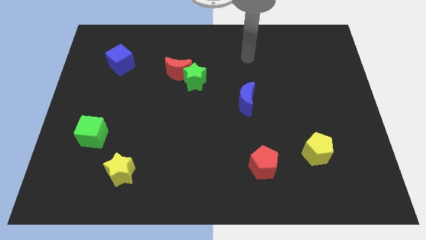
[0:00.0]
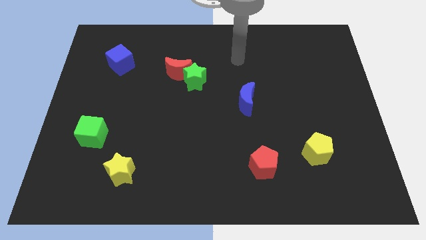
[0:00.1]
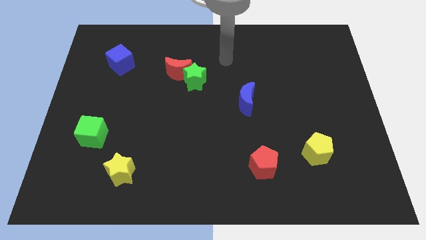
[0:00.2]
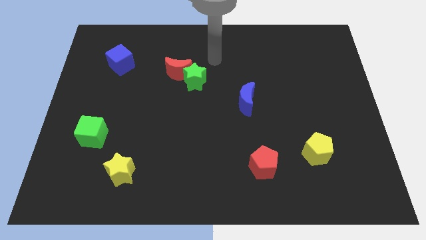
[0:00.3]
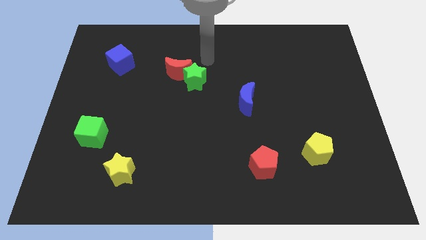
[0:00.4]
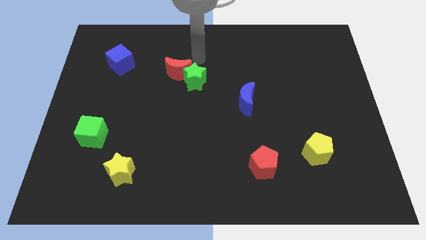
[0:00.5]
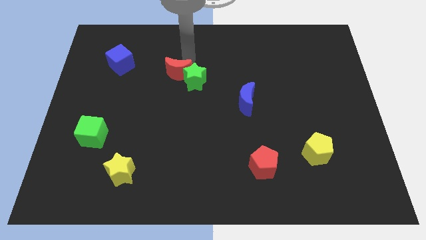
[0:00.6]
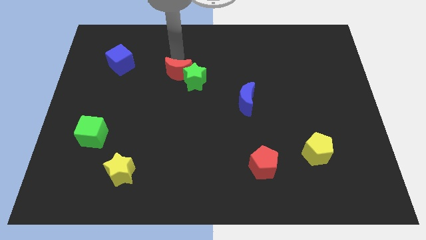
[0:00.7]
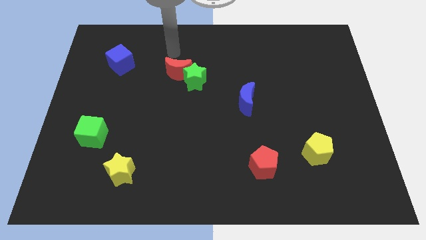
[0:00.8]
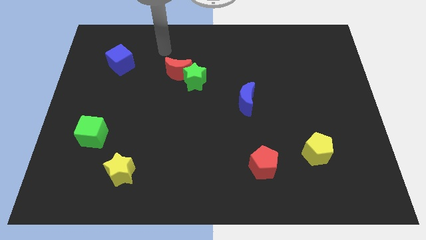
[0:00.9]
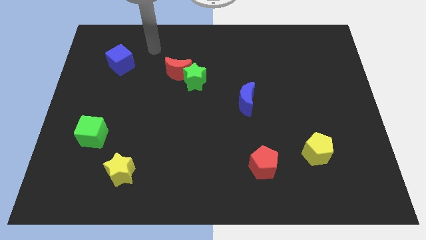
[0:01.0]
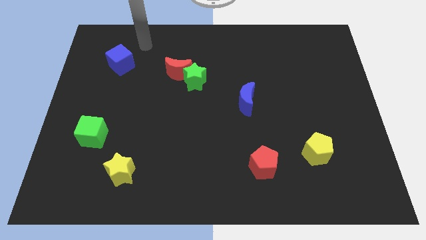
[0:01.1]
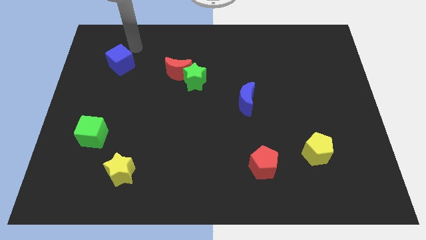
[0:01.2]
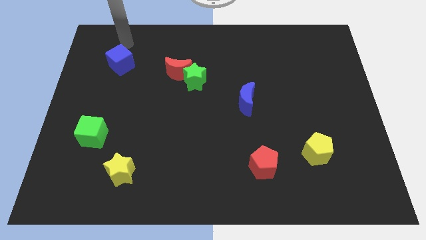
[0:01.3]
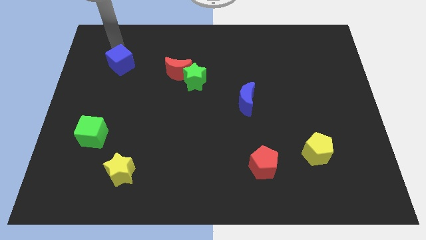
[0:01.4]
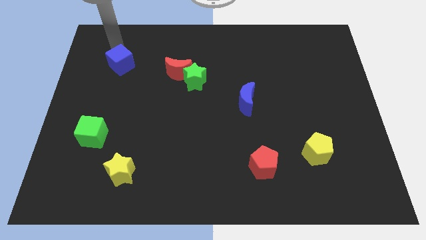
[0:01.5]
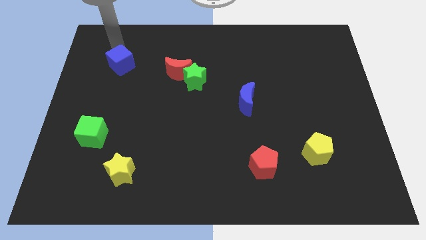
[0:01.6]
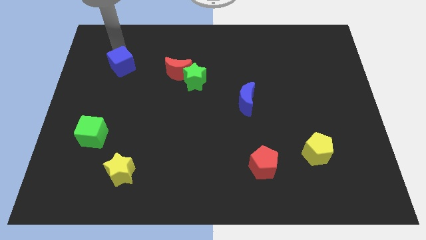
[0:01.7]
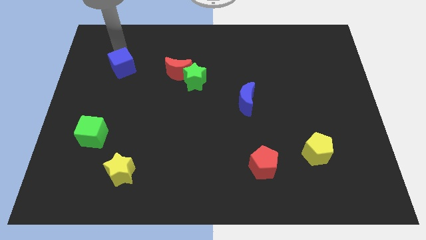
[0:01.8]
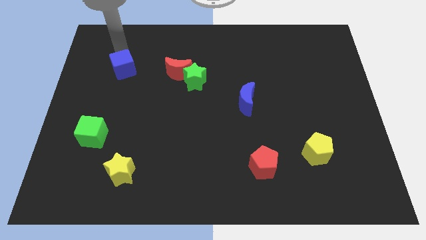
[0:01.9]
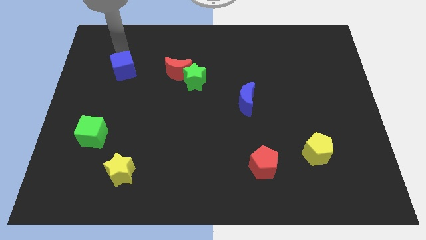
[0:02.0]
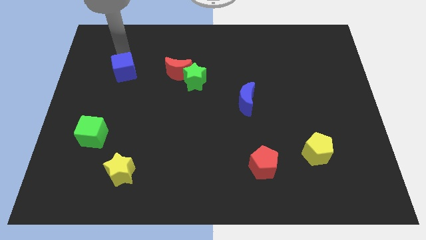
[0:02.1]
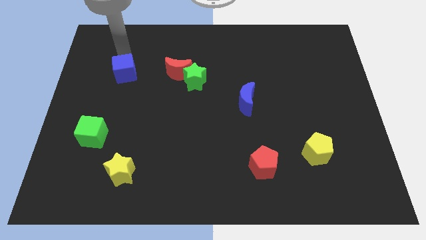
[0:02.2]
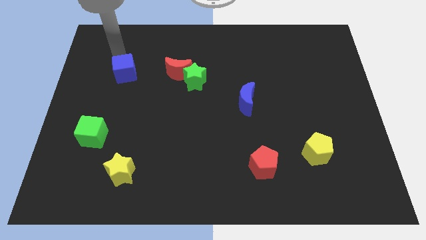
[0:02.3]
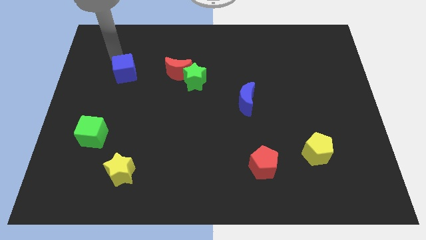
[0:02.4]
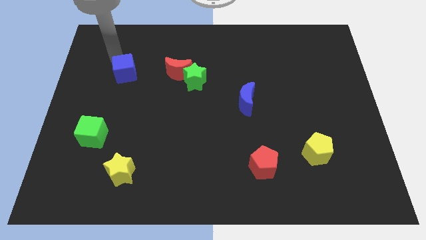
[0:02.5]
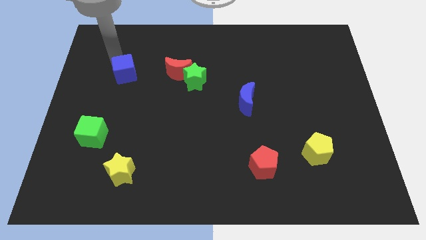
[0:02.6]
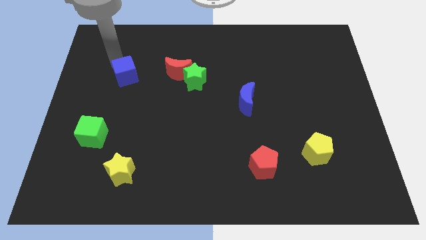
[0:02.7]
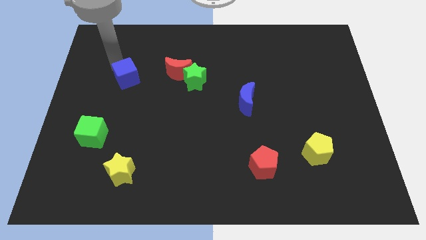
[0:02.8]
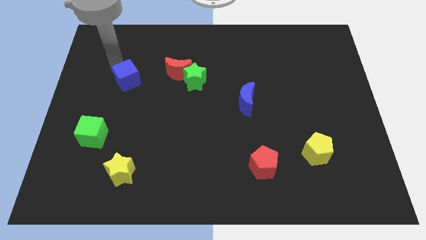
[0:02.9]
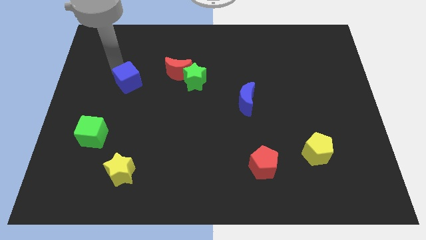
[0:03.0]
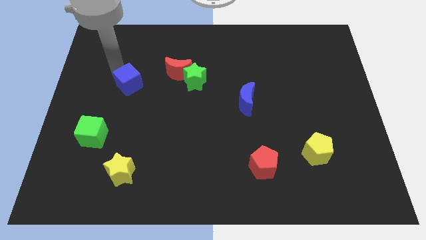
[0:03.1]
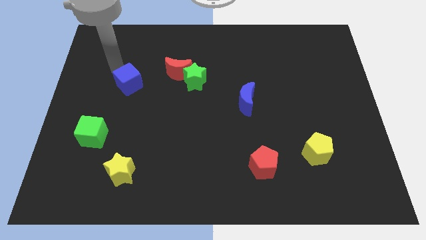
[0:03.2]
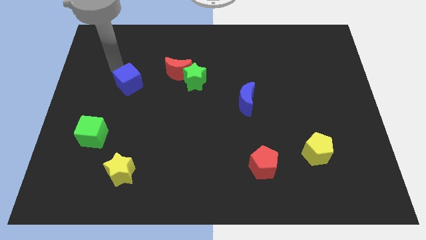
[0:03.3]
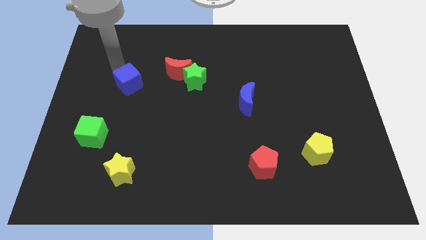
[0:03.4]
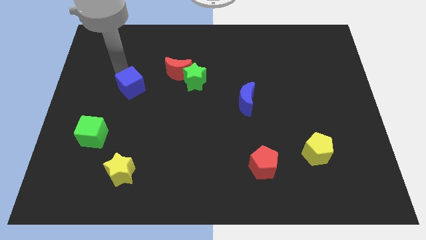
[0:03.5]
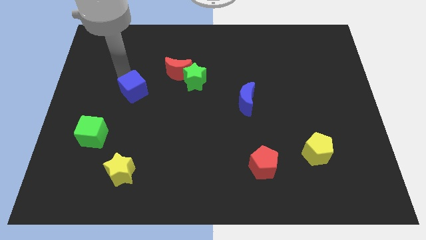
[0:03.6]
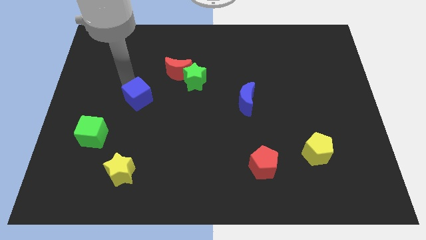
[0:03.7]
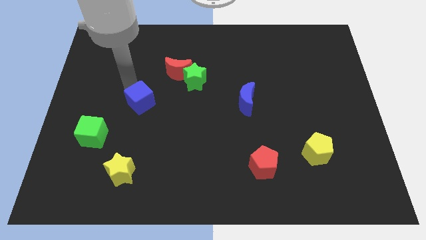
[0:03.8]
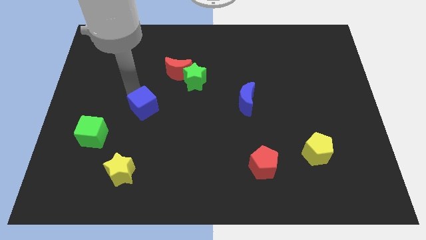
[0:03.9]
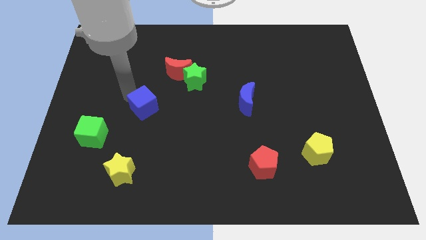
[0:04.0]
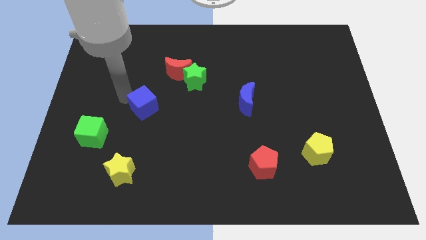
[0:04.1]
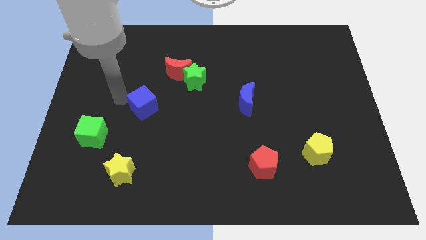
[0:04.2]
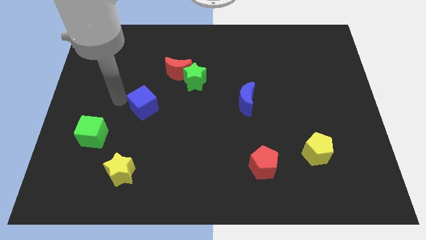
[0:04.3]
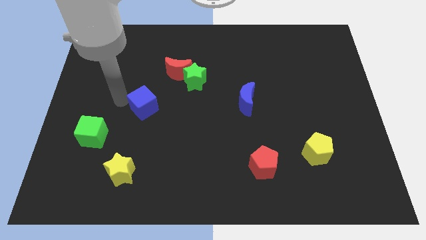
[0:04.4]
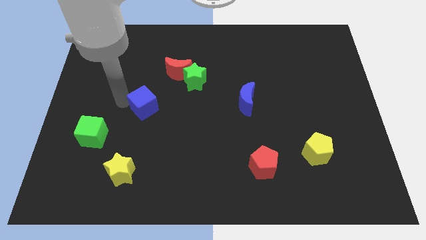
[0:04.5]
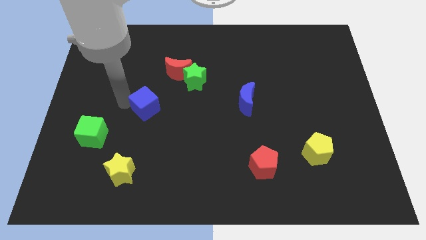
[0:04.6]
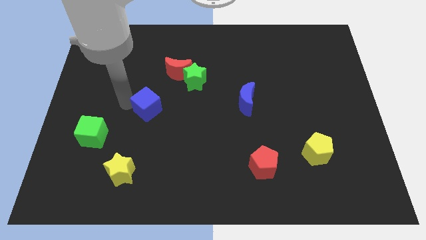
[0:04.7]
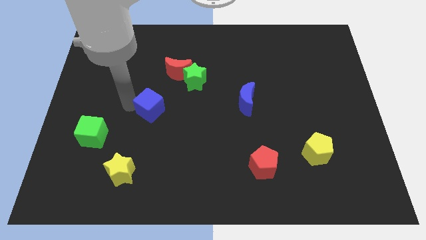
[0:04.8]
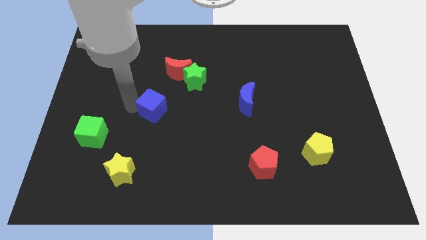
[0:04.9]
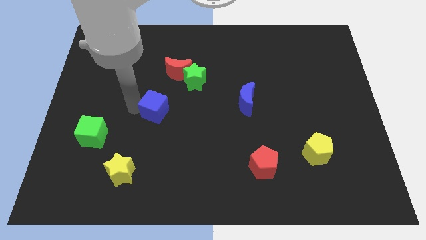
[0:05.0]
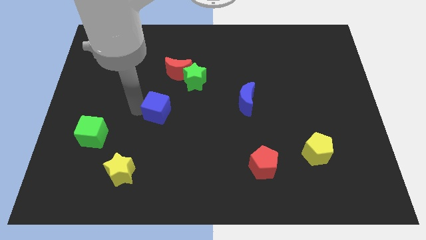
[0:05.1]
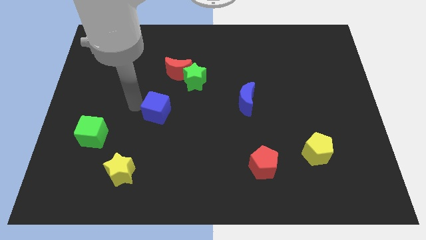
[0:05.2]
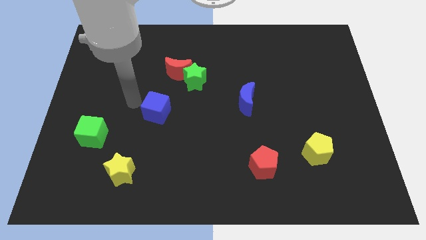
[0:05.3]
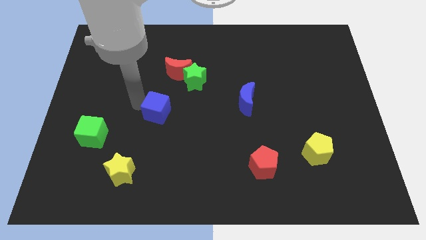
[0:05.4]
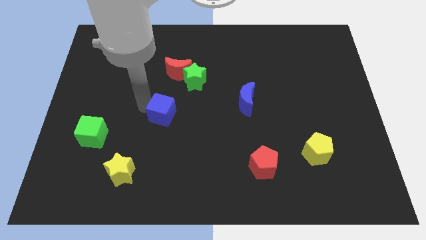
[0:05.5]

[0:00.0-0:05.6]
move the blue cube diagonally down and right

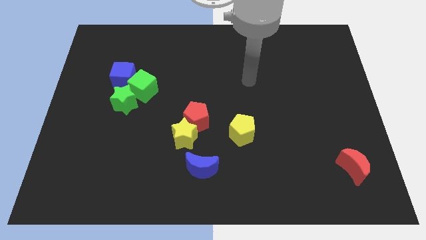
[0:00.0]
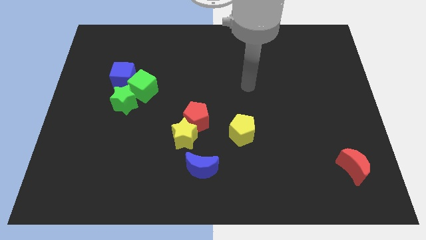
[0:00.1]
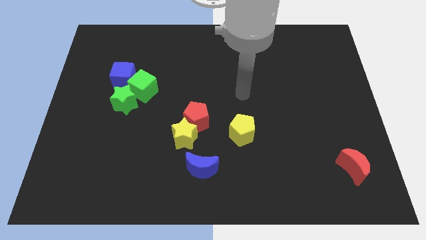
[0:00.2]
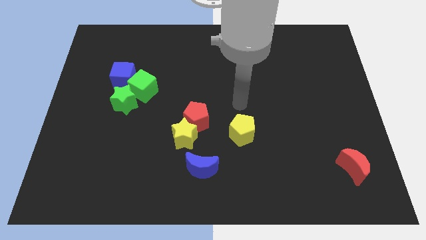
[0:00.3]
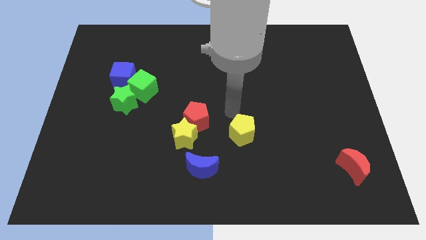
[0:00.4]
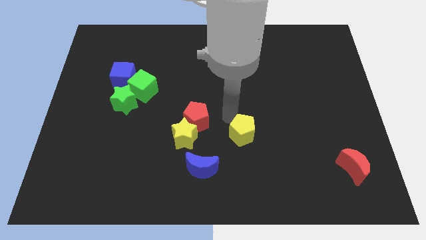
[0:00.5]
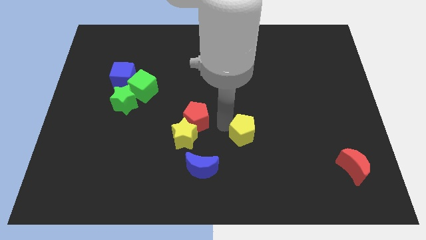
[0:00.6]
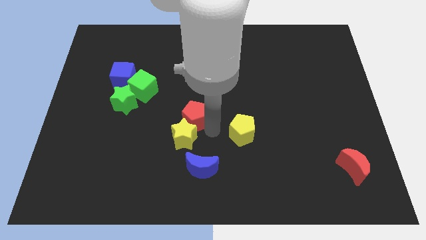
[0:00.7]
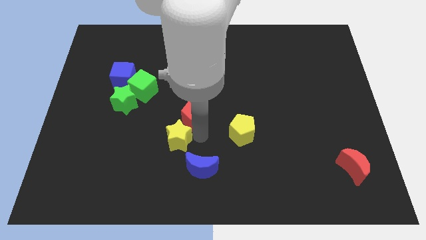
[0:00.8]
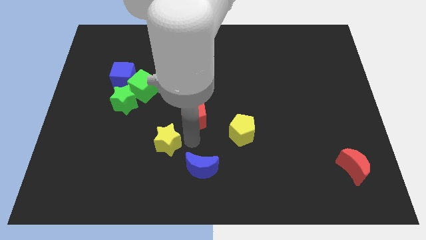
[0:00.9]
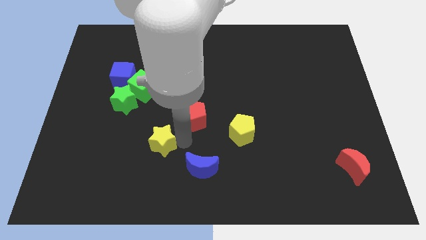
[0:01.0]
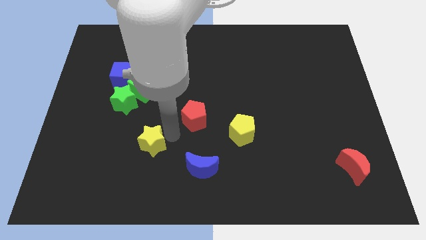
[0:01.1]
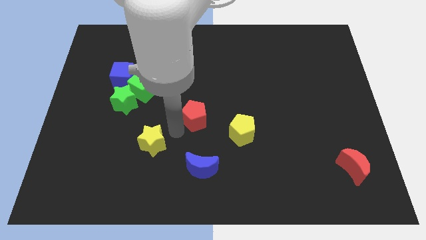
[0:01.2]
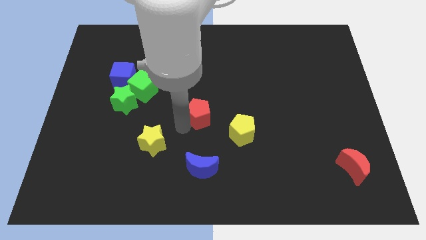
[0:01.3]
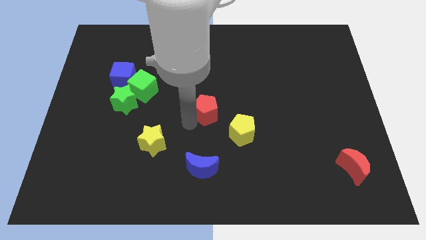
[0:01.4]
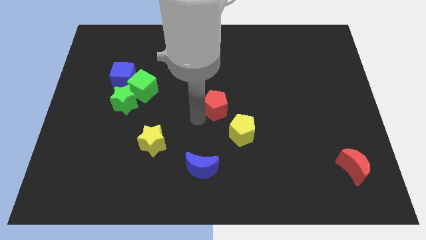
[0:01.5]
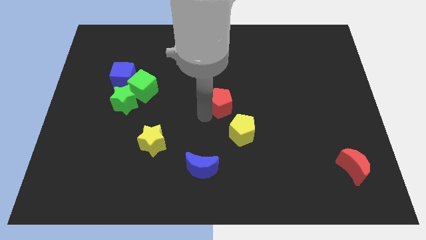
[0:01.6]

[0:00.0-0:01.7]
move the red pentagon a bit upwards and then right

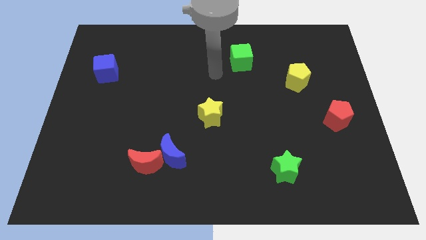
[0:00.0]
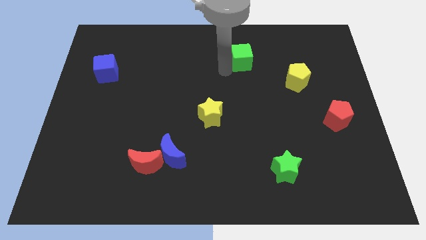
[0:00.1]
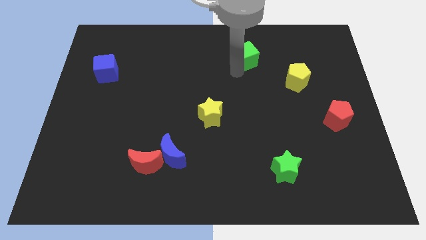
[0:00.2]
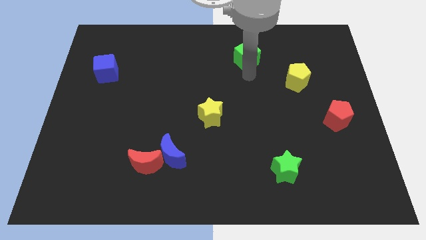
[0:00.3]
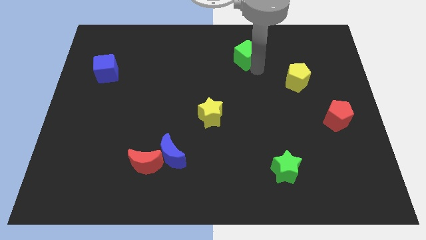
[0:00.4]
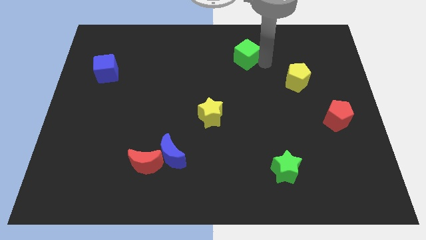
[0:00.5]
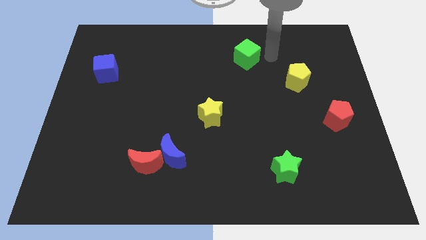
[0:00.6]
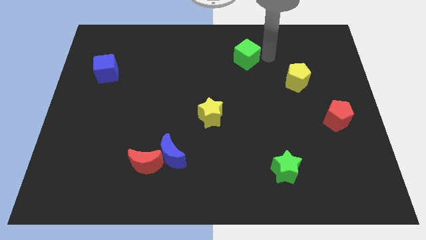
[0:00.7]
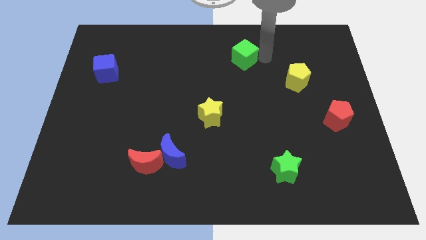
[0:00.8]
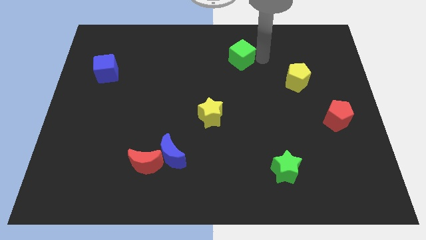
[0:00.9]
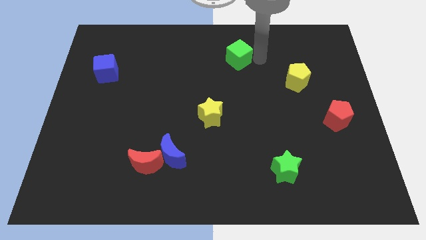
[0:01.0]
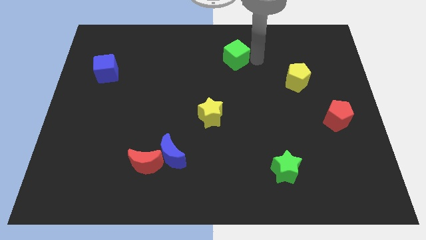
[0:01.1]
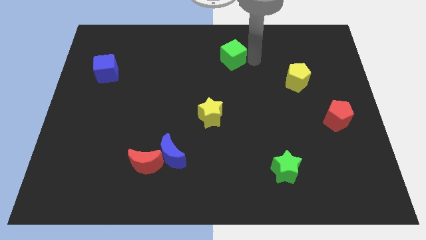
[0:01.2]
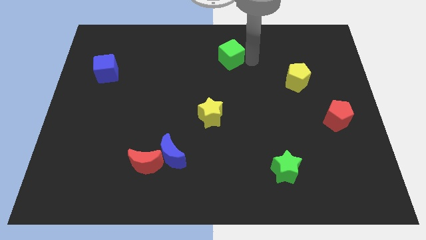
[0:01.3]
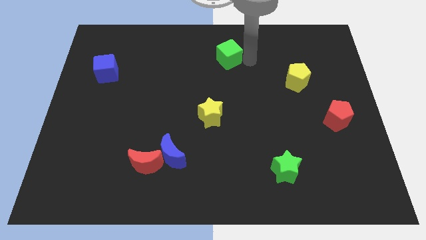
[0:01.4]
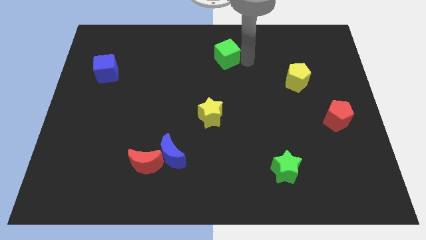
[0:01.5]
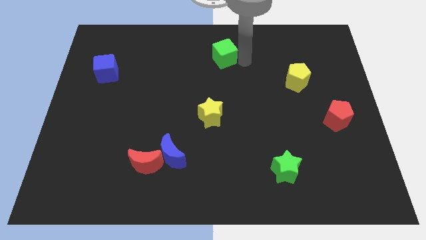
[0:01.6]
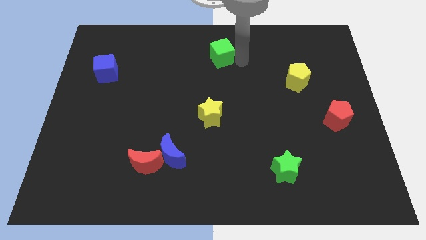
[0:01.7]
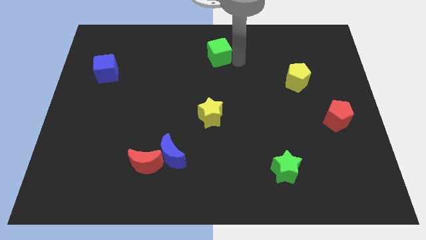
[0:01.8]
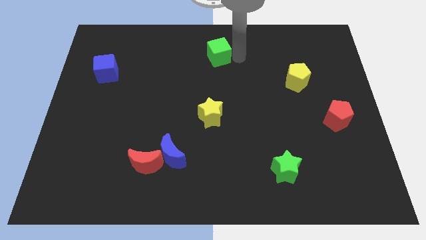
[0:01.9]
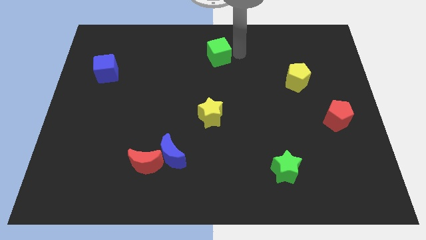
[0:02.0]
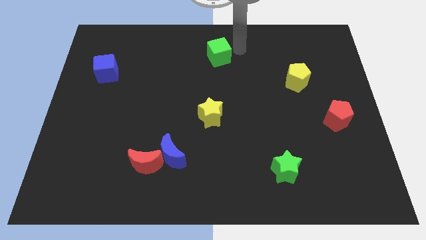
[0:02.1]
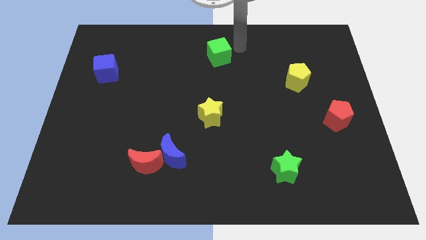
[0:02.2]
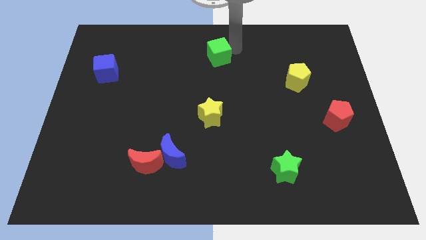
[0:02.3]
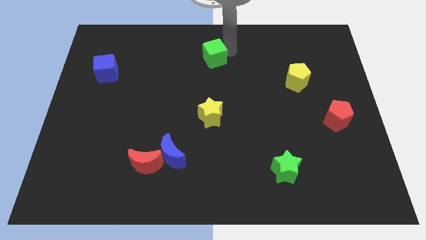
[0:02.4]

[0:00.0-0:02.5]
push the green cube a bit to the left
